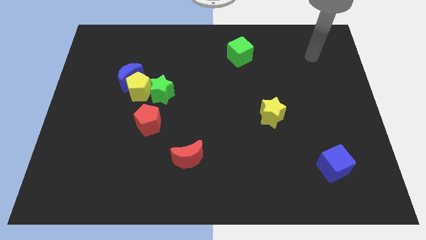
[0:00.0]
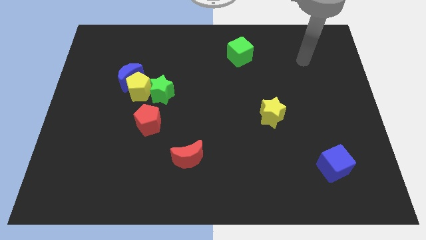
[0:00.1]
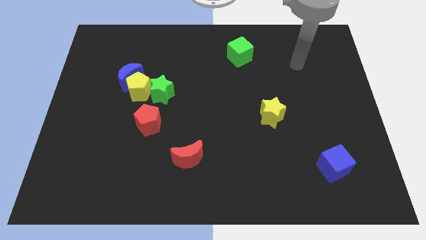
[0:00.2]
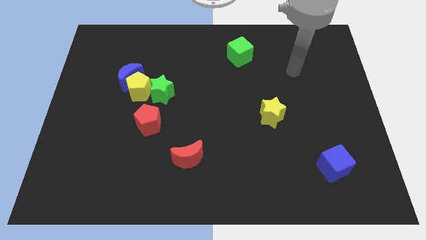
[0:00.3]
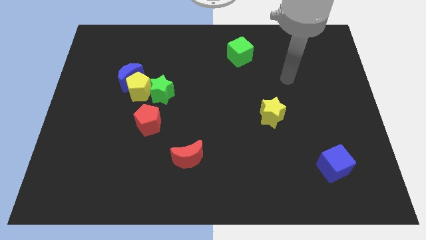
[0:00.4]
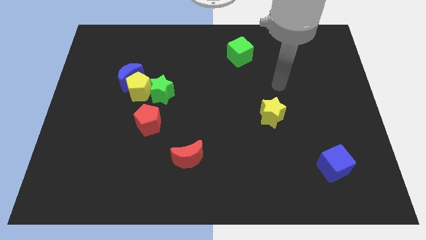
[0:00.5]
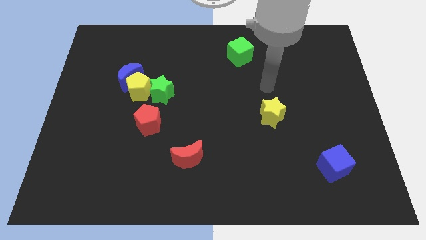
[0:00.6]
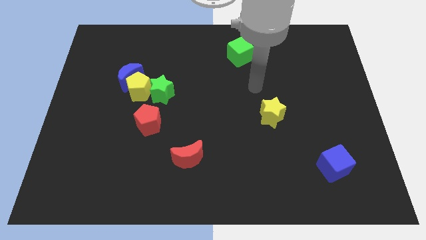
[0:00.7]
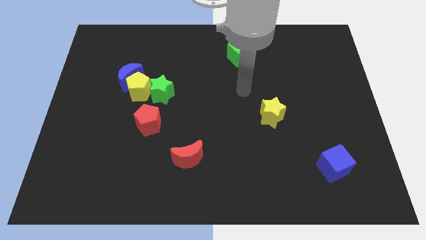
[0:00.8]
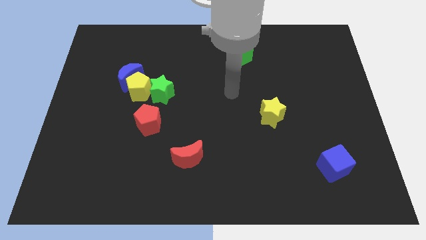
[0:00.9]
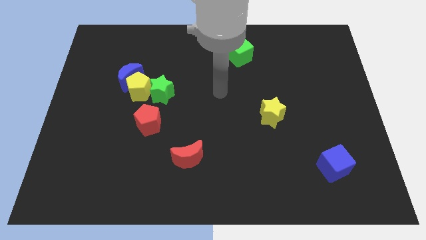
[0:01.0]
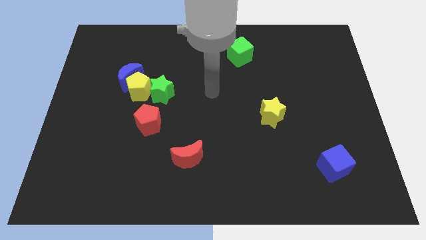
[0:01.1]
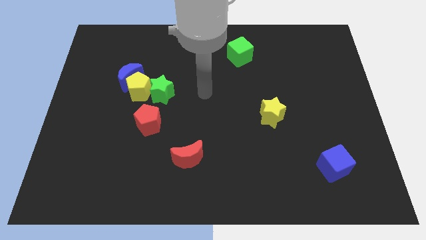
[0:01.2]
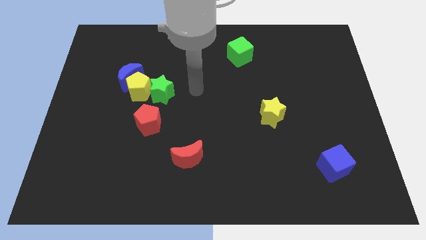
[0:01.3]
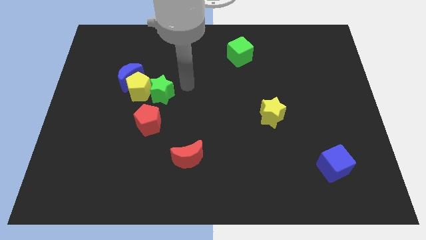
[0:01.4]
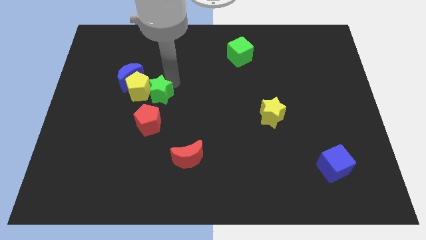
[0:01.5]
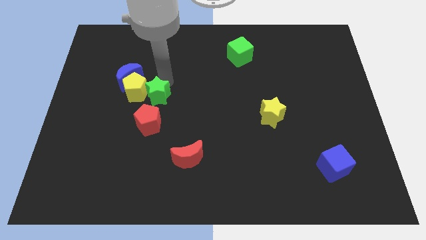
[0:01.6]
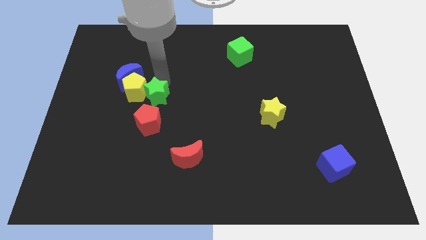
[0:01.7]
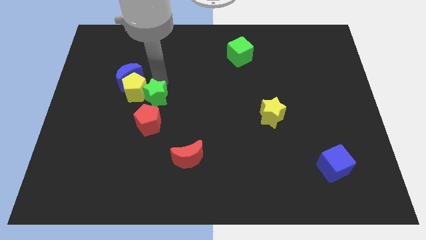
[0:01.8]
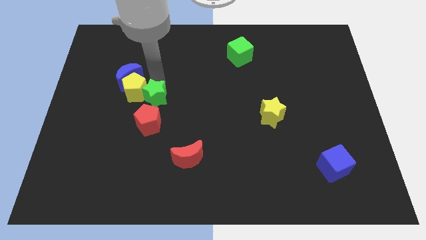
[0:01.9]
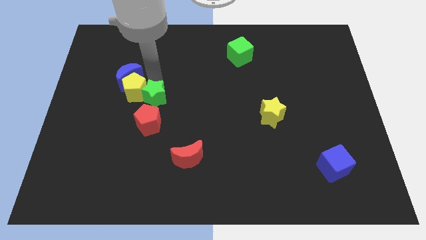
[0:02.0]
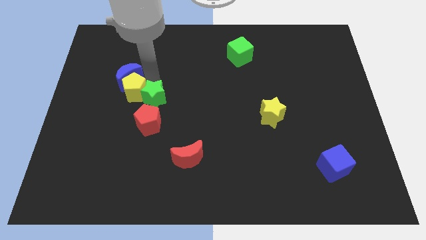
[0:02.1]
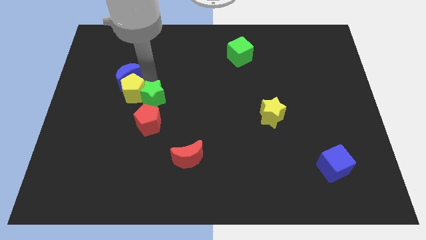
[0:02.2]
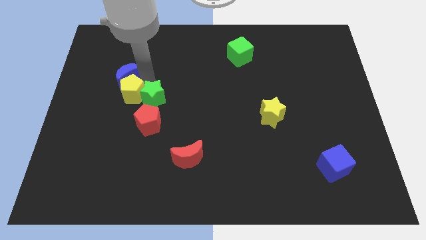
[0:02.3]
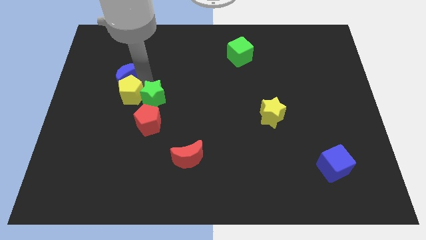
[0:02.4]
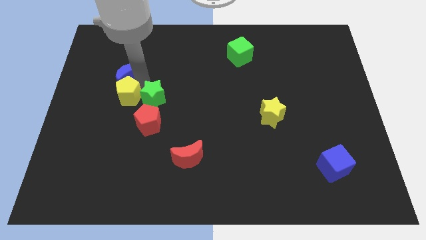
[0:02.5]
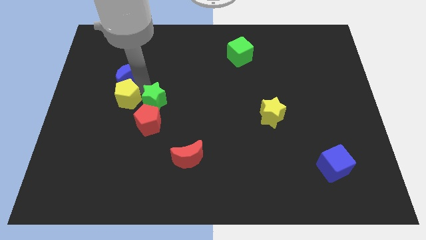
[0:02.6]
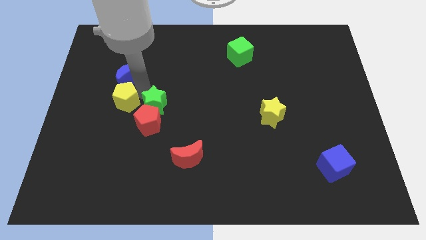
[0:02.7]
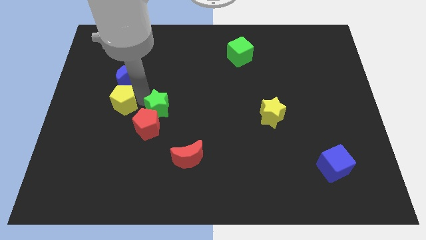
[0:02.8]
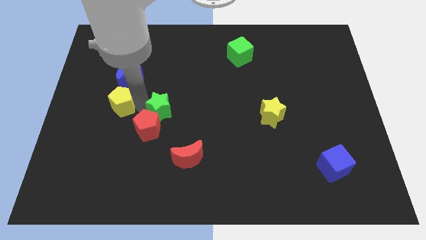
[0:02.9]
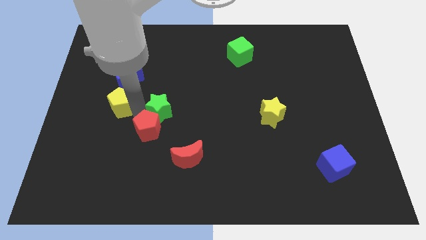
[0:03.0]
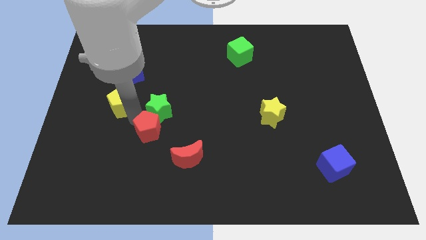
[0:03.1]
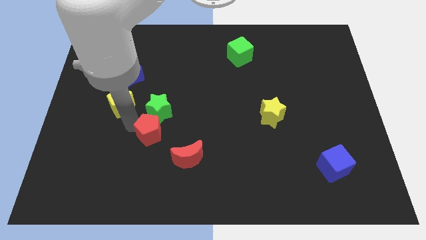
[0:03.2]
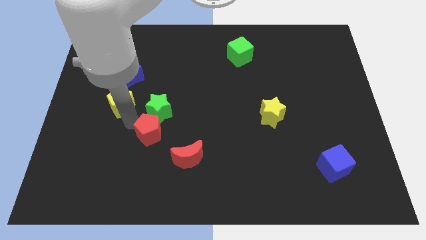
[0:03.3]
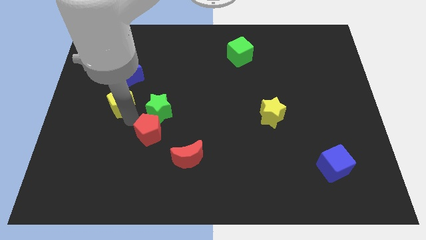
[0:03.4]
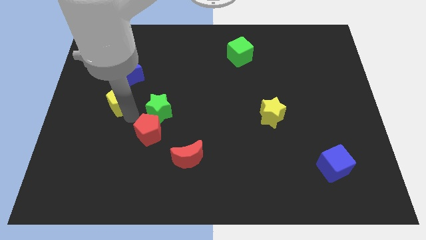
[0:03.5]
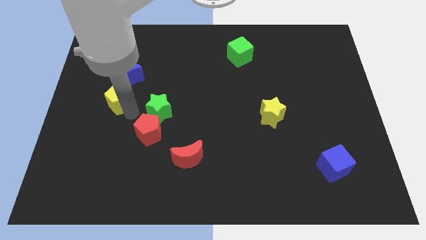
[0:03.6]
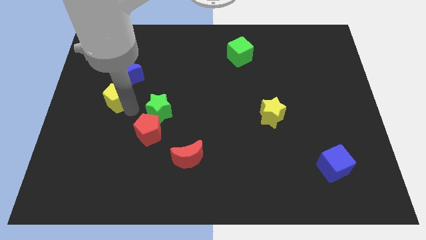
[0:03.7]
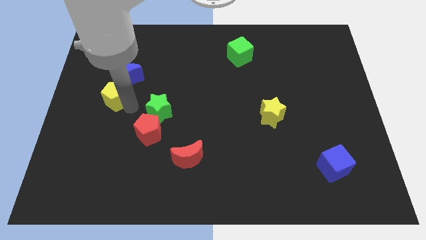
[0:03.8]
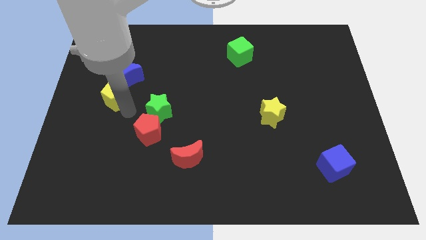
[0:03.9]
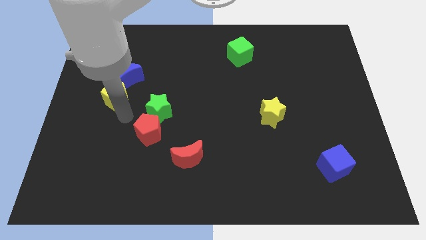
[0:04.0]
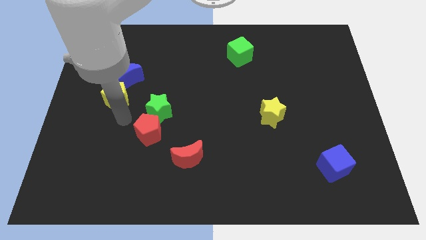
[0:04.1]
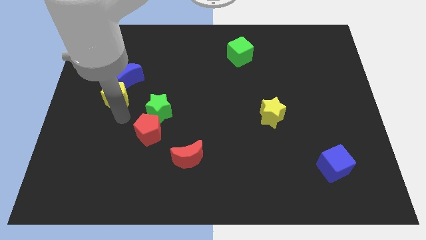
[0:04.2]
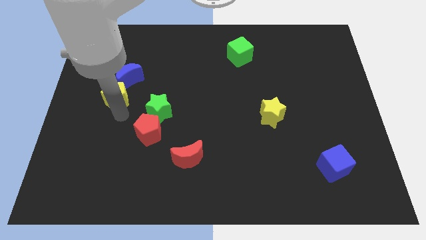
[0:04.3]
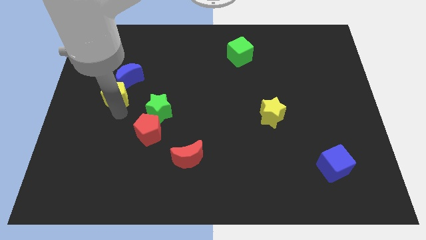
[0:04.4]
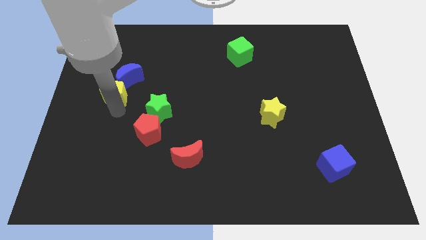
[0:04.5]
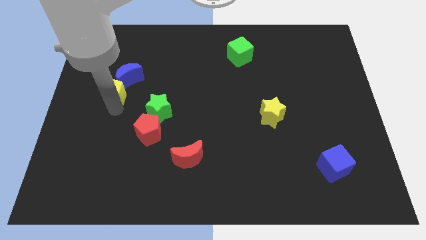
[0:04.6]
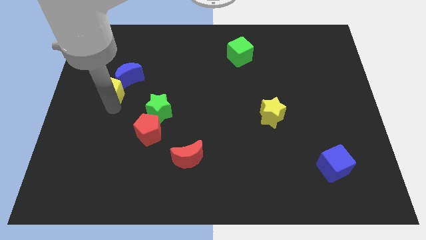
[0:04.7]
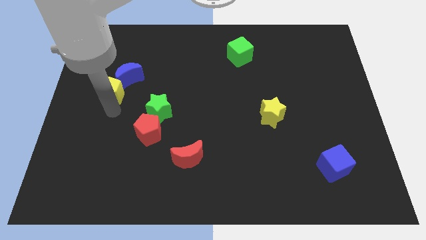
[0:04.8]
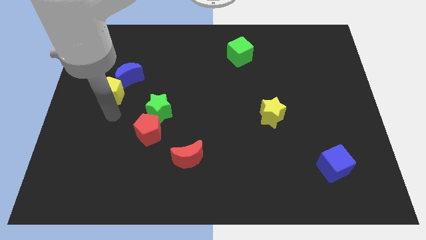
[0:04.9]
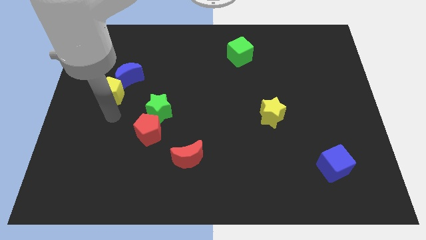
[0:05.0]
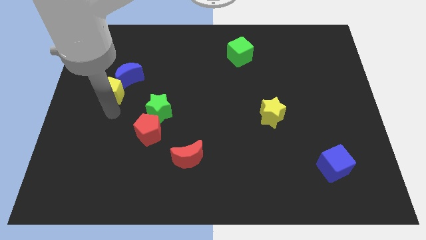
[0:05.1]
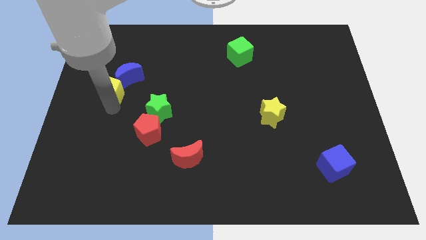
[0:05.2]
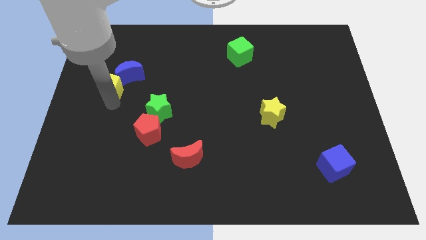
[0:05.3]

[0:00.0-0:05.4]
pull the yellow pentagon apart from the blue moon, green star, and red pentagon

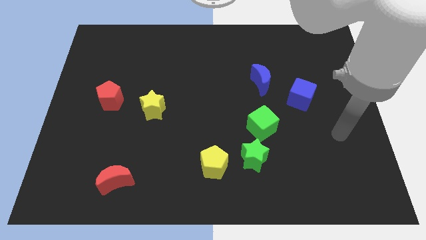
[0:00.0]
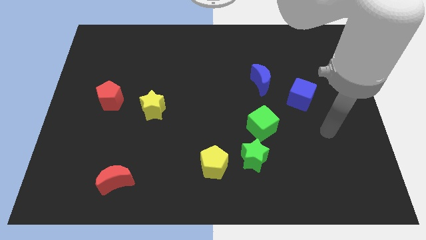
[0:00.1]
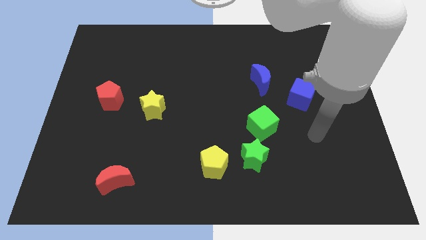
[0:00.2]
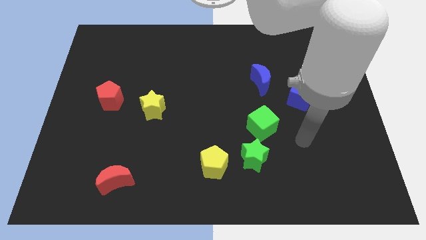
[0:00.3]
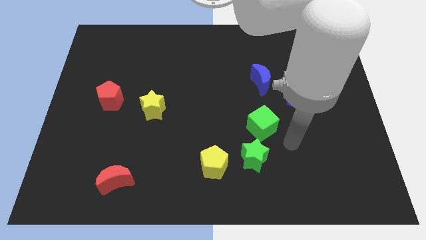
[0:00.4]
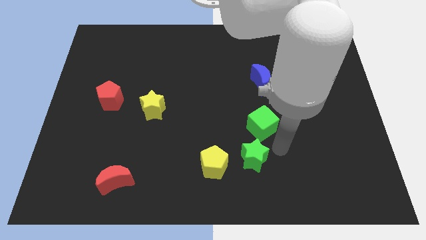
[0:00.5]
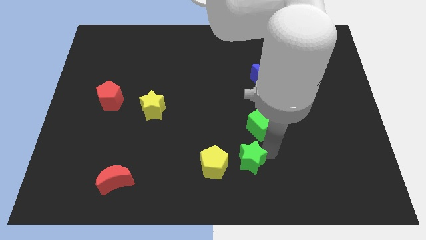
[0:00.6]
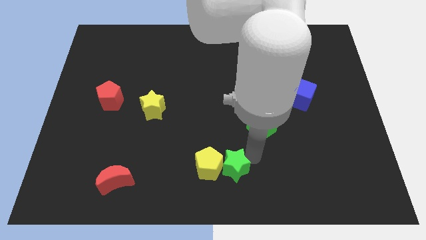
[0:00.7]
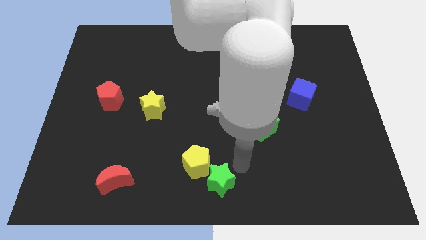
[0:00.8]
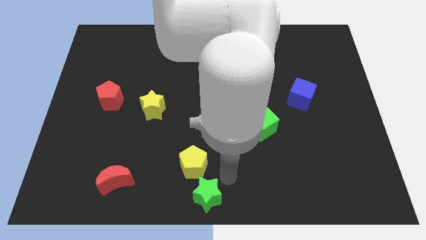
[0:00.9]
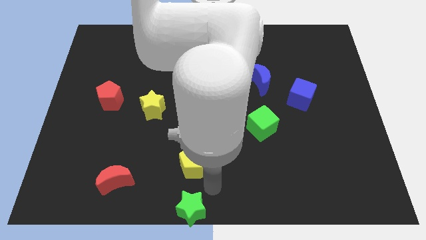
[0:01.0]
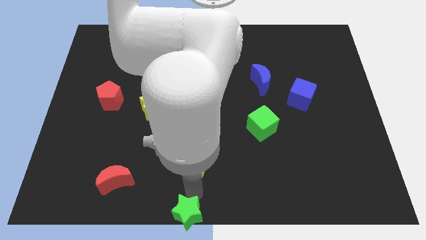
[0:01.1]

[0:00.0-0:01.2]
pull the yellow pentagon apart from the green star

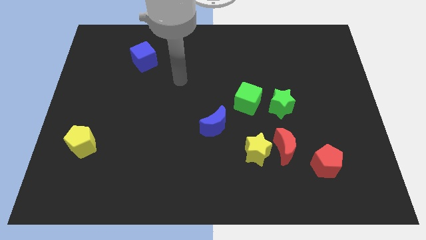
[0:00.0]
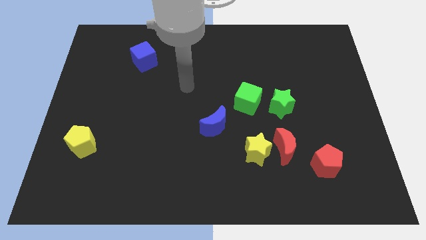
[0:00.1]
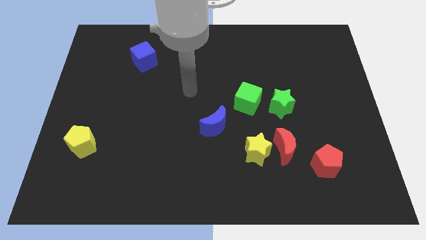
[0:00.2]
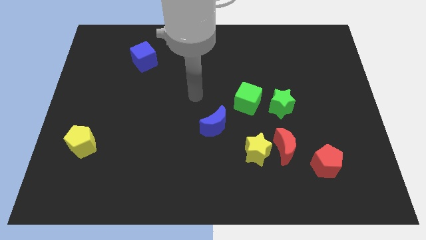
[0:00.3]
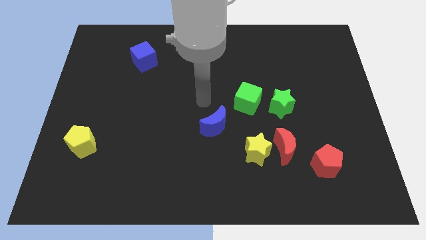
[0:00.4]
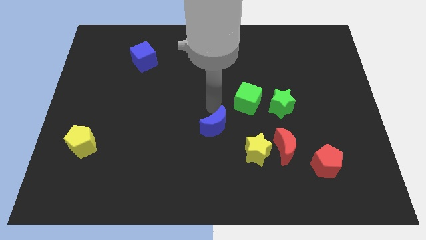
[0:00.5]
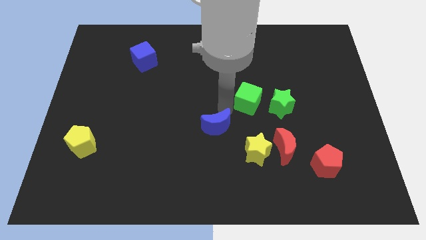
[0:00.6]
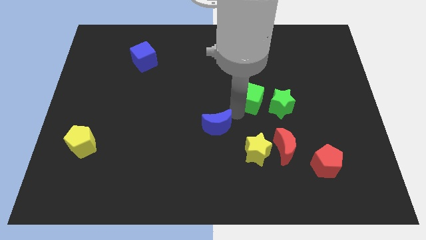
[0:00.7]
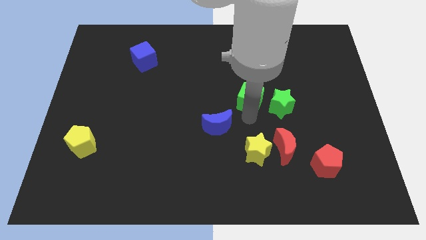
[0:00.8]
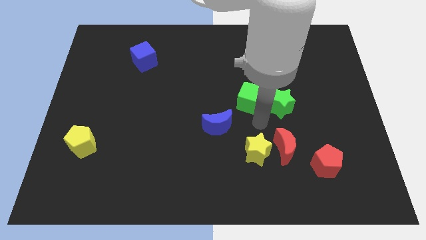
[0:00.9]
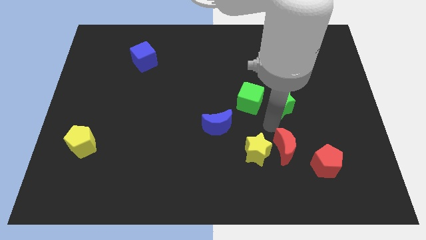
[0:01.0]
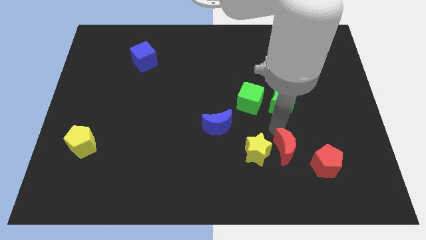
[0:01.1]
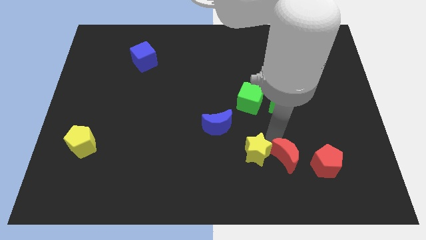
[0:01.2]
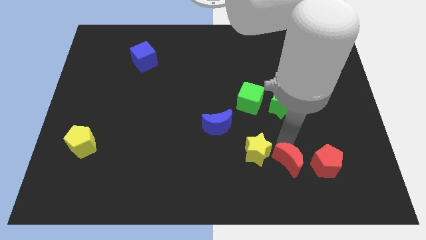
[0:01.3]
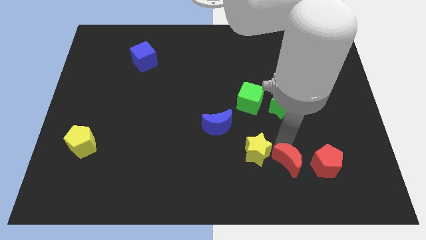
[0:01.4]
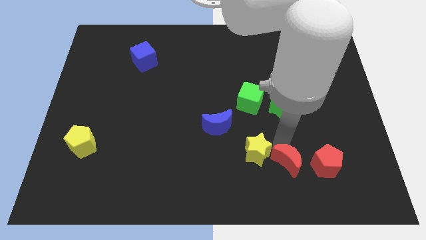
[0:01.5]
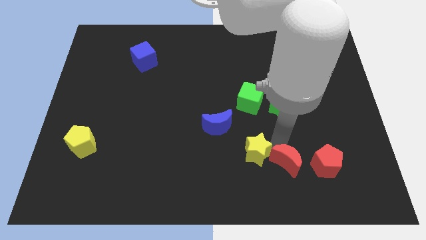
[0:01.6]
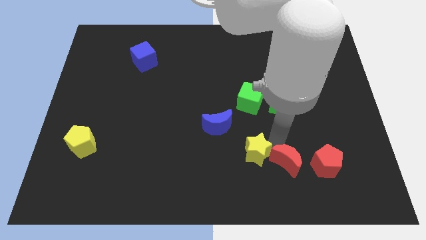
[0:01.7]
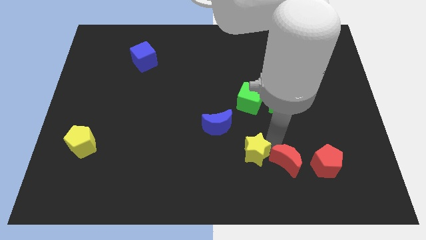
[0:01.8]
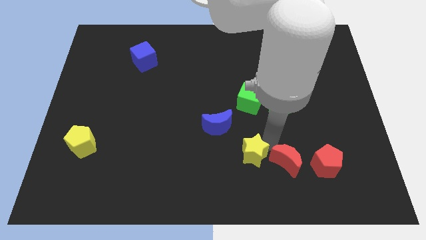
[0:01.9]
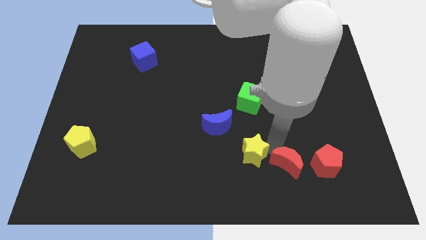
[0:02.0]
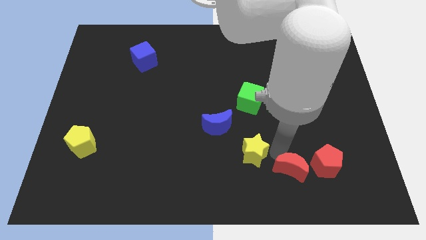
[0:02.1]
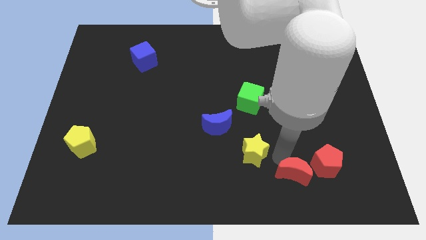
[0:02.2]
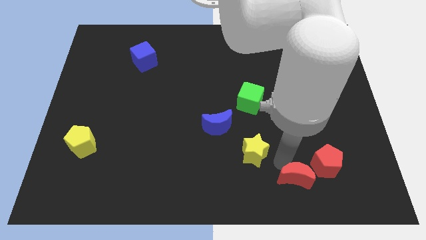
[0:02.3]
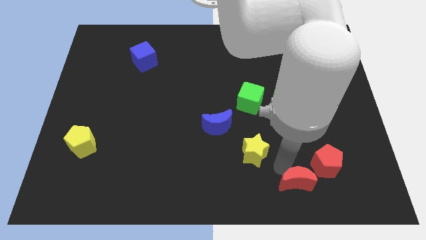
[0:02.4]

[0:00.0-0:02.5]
separate the yellow star from the red moon

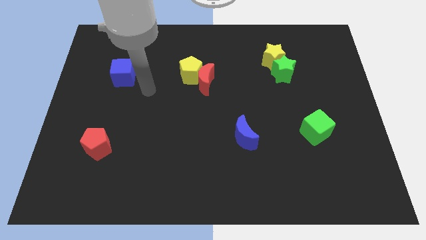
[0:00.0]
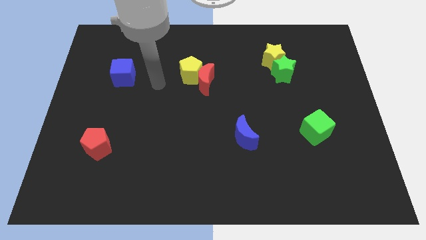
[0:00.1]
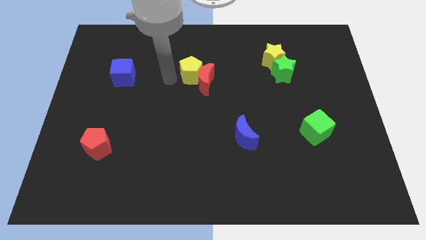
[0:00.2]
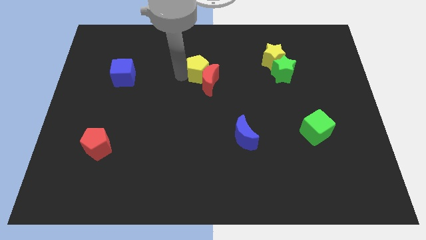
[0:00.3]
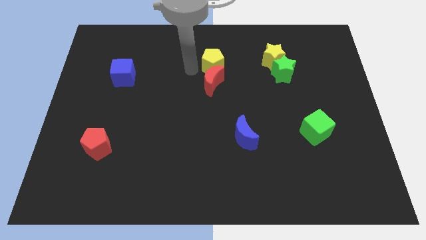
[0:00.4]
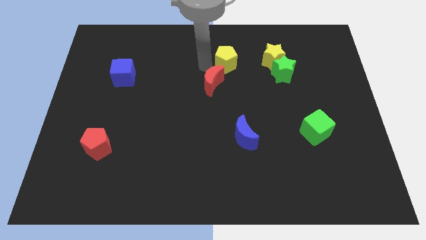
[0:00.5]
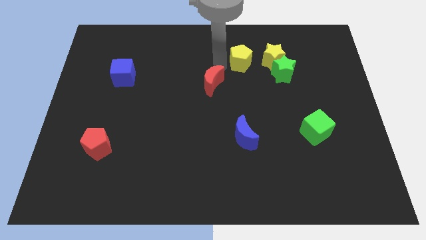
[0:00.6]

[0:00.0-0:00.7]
pull the red moon apart from the yellow pentagon
